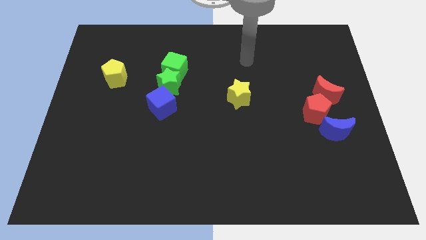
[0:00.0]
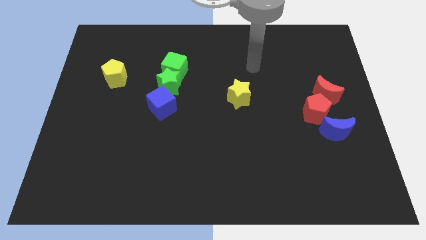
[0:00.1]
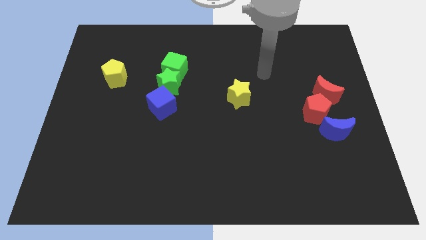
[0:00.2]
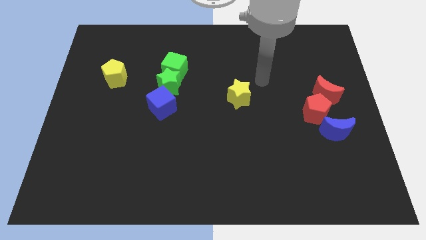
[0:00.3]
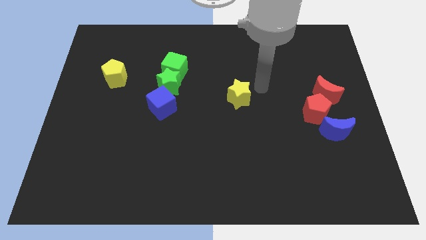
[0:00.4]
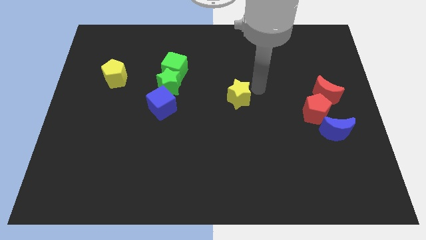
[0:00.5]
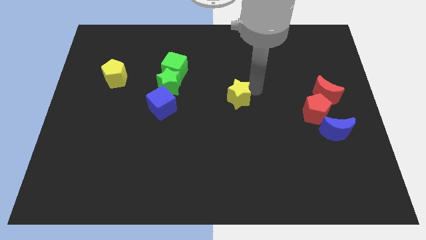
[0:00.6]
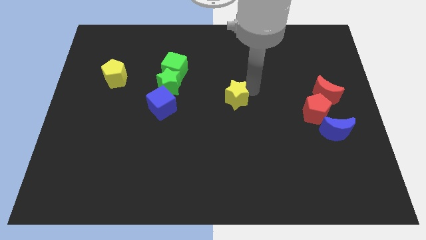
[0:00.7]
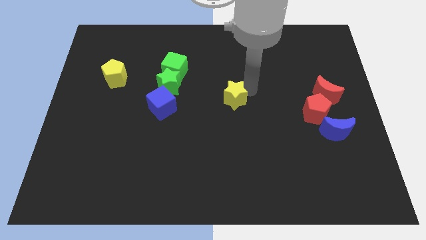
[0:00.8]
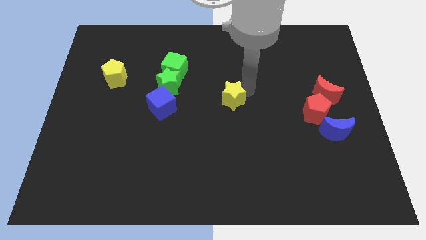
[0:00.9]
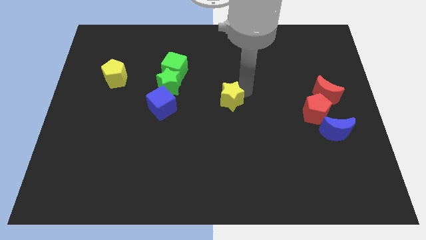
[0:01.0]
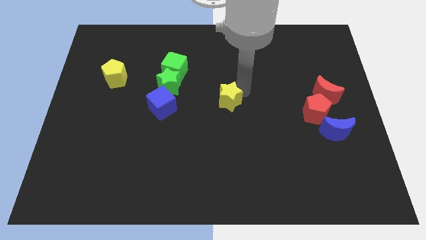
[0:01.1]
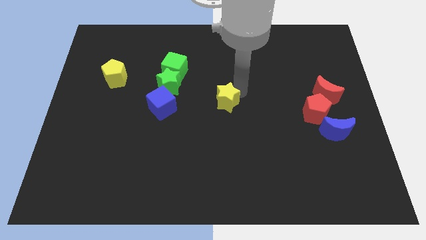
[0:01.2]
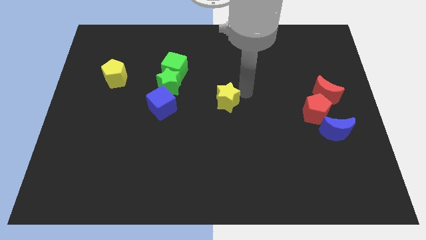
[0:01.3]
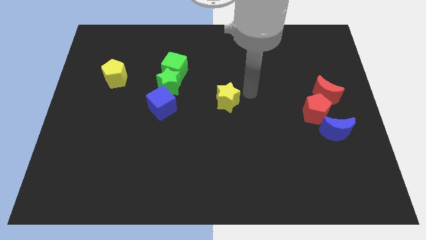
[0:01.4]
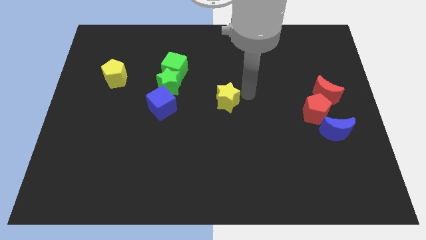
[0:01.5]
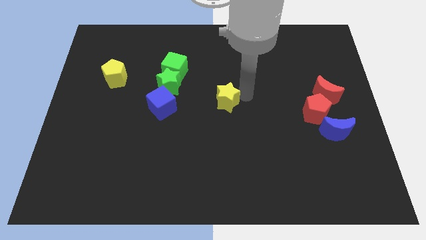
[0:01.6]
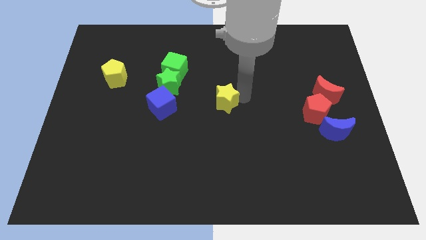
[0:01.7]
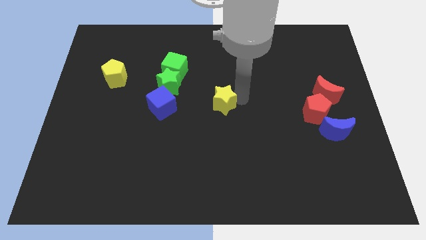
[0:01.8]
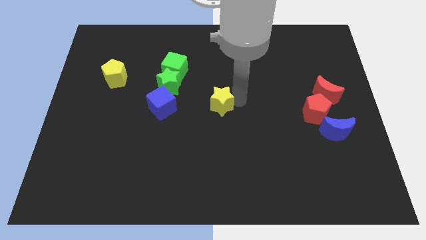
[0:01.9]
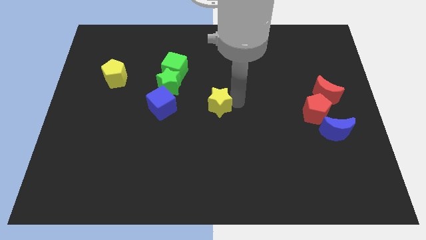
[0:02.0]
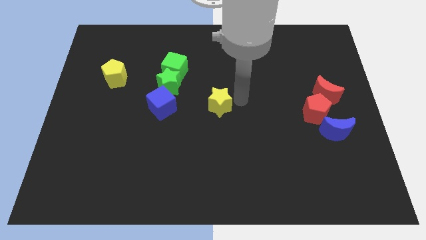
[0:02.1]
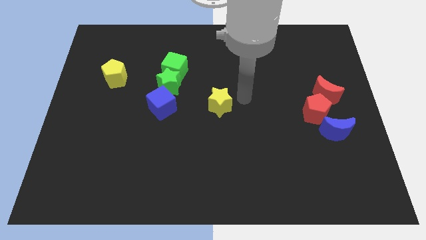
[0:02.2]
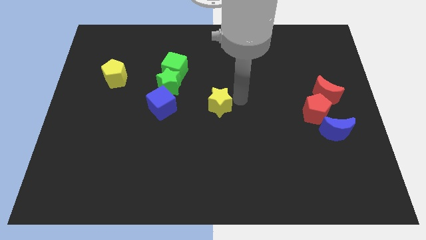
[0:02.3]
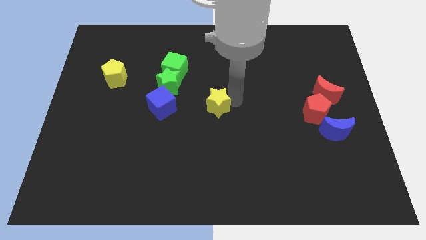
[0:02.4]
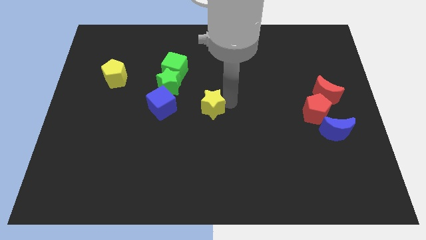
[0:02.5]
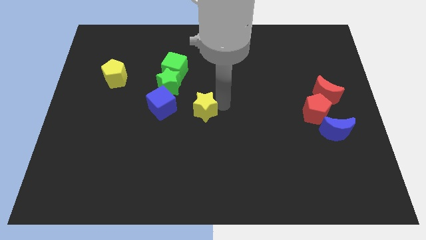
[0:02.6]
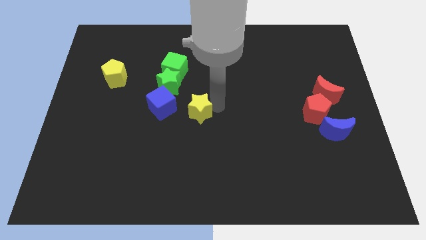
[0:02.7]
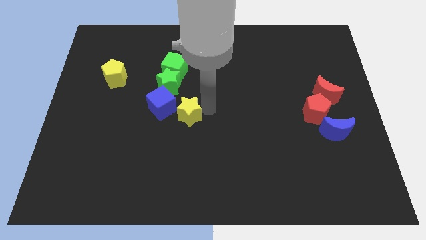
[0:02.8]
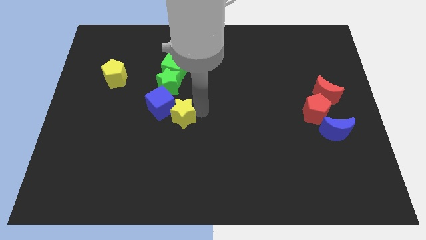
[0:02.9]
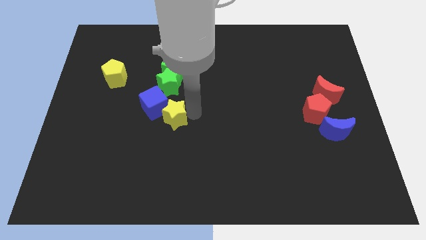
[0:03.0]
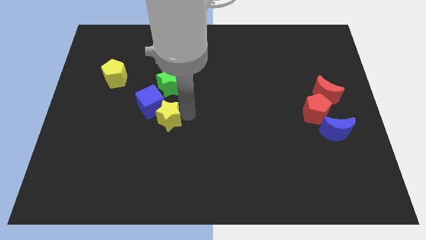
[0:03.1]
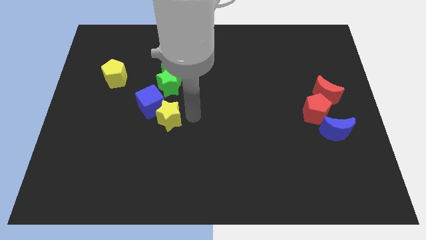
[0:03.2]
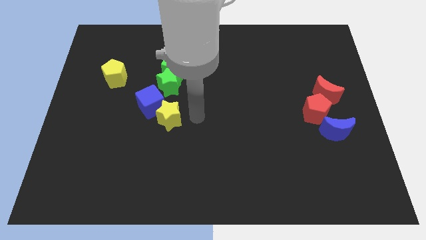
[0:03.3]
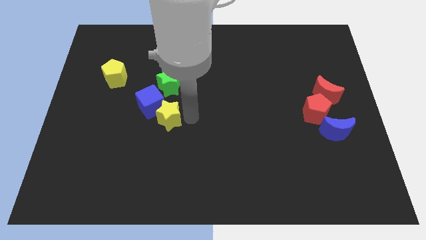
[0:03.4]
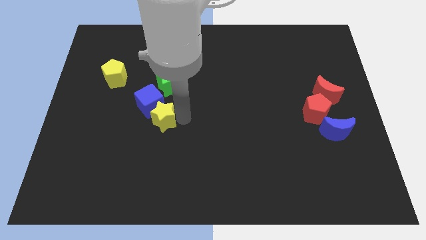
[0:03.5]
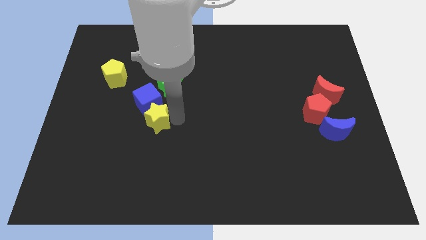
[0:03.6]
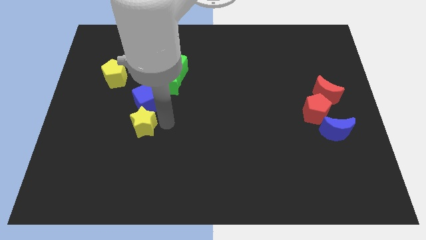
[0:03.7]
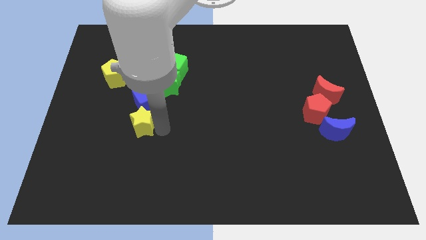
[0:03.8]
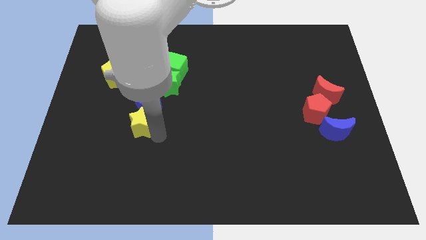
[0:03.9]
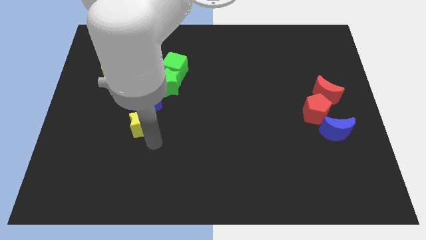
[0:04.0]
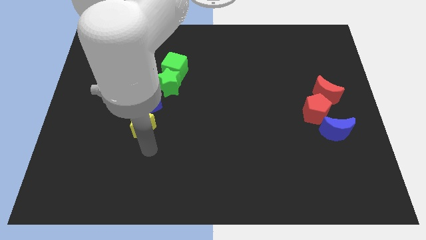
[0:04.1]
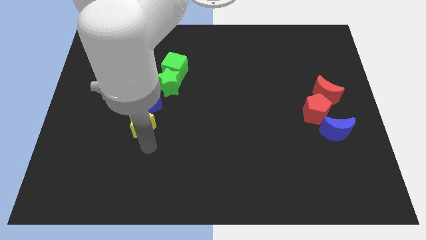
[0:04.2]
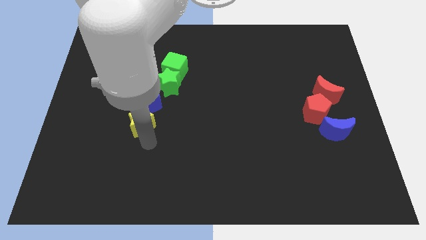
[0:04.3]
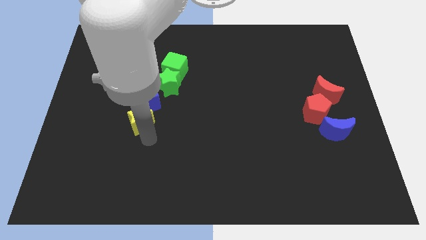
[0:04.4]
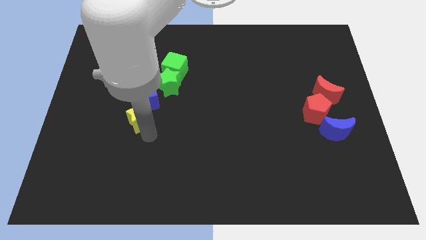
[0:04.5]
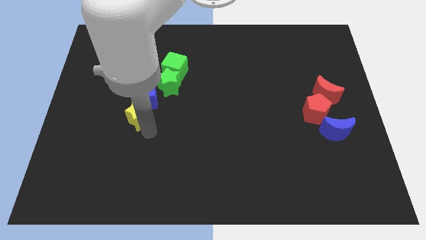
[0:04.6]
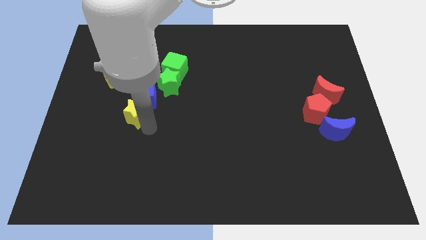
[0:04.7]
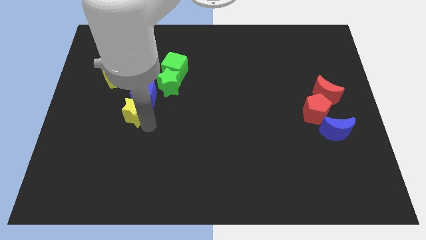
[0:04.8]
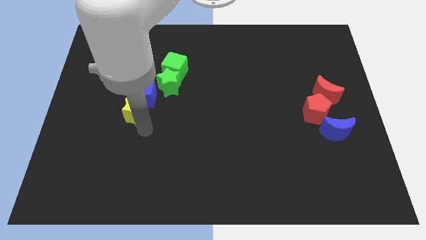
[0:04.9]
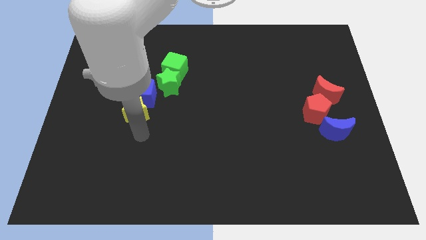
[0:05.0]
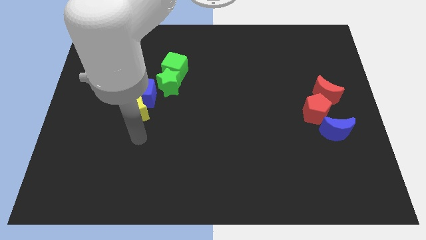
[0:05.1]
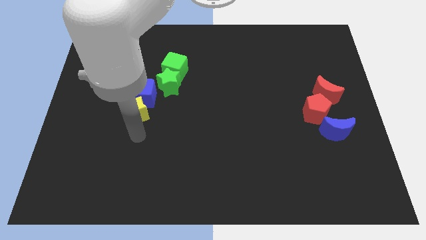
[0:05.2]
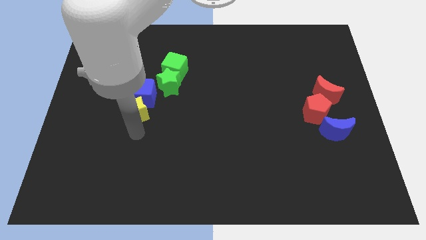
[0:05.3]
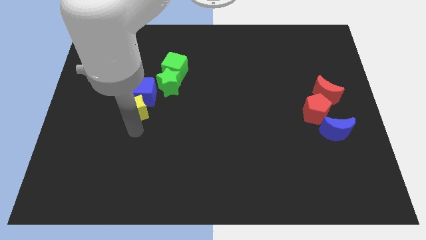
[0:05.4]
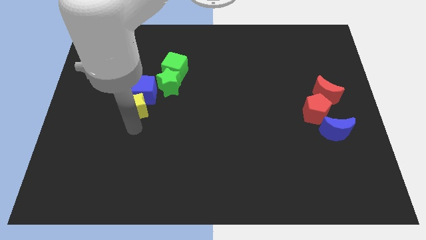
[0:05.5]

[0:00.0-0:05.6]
push the yellow star to the bottom right side of the yellow pentagon

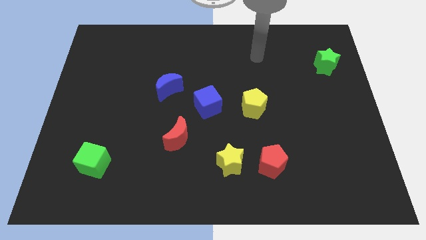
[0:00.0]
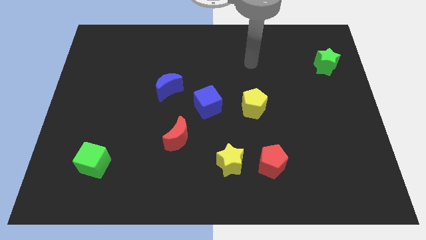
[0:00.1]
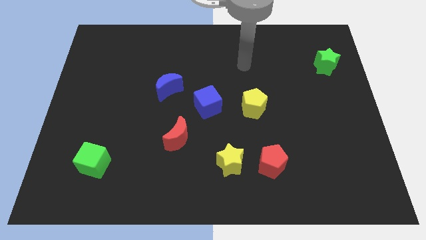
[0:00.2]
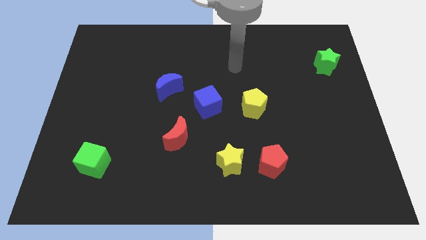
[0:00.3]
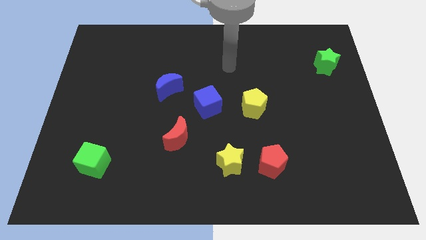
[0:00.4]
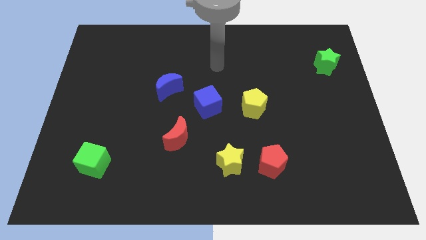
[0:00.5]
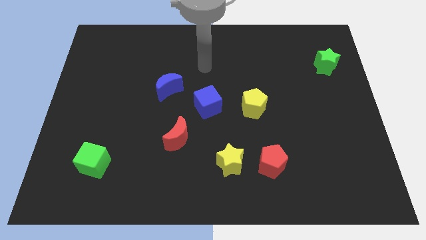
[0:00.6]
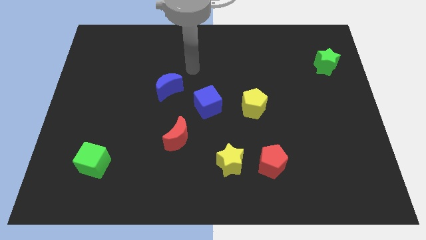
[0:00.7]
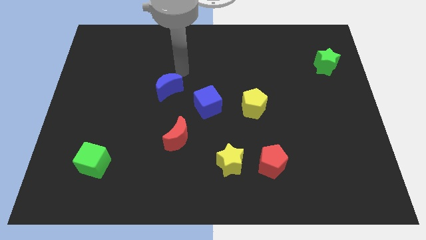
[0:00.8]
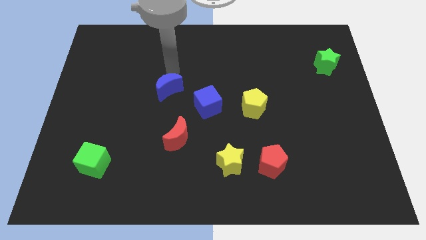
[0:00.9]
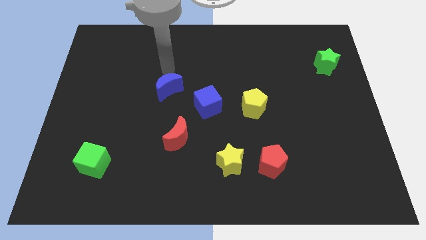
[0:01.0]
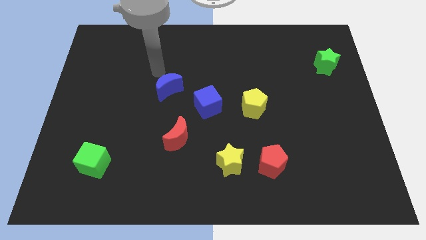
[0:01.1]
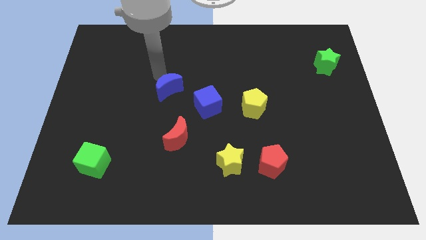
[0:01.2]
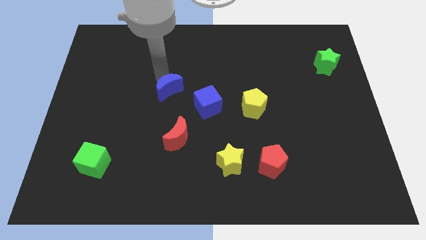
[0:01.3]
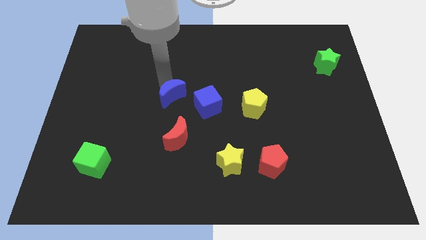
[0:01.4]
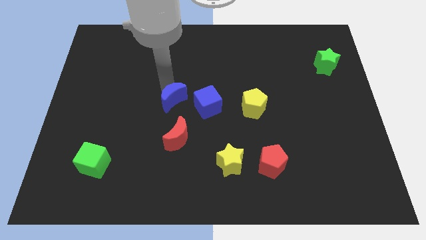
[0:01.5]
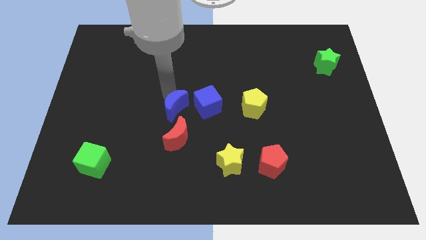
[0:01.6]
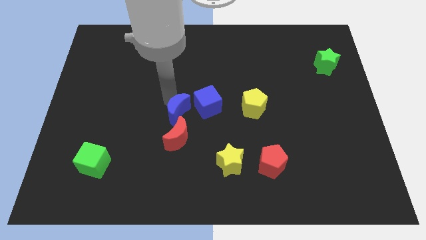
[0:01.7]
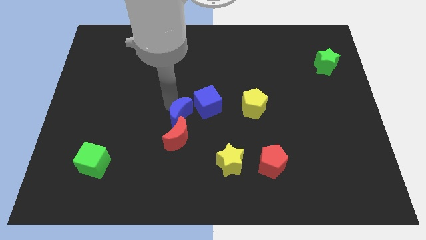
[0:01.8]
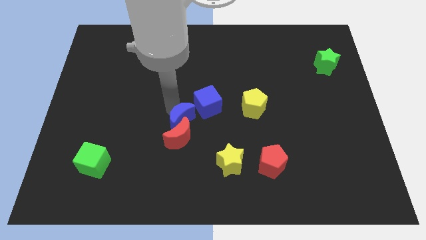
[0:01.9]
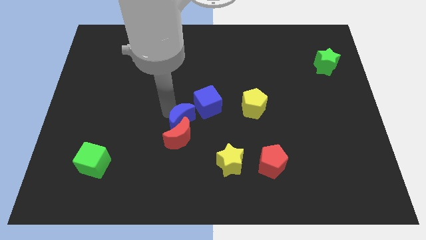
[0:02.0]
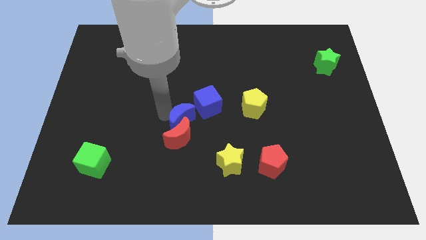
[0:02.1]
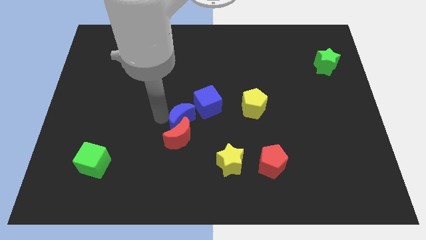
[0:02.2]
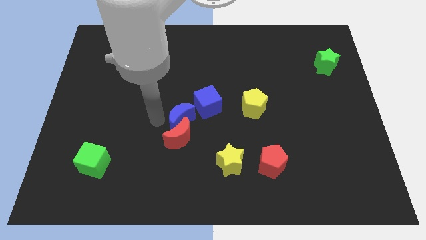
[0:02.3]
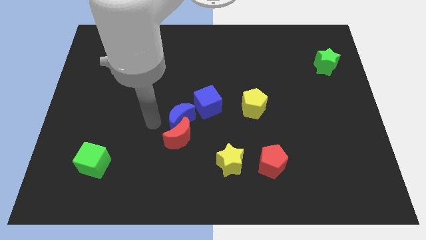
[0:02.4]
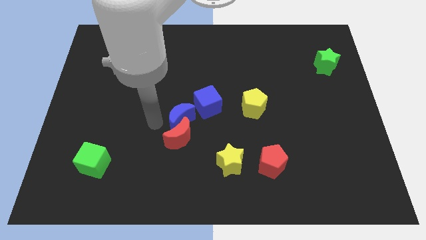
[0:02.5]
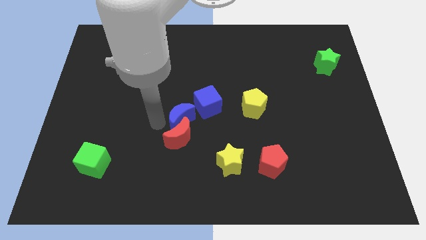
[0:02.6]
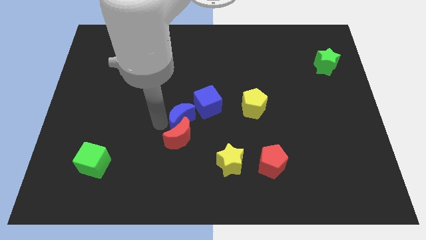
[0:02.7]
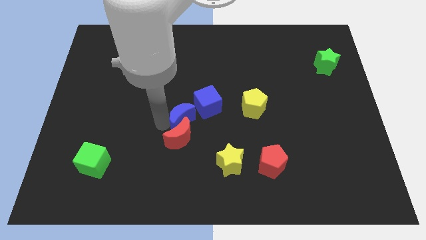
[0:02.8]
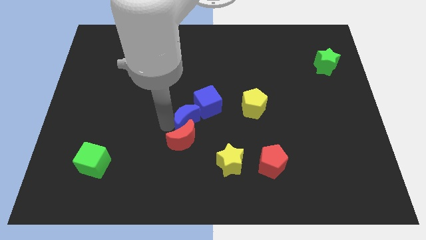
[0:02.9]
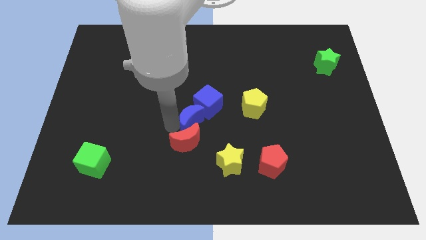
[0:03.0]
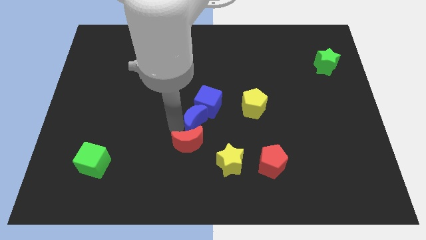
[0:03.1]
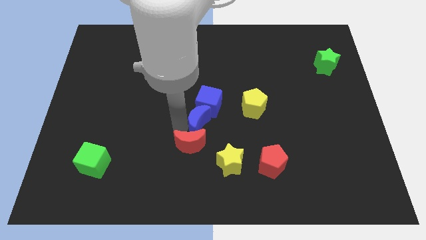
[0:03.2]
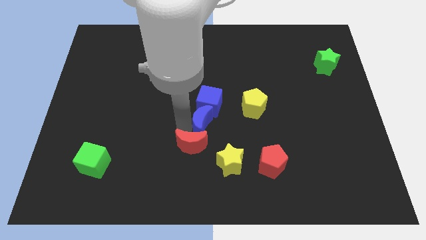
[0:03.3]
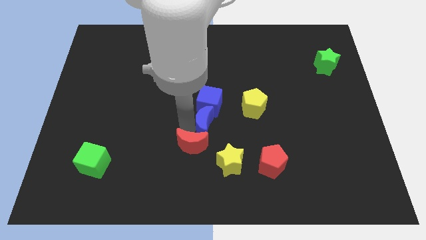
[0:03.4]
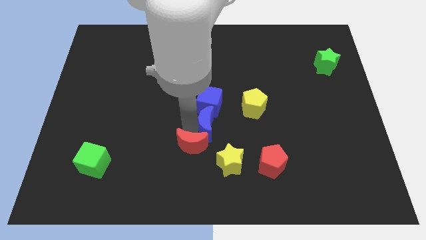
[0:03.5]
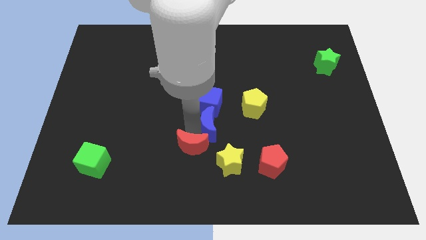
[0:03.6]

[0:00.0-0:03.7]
slide the blue moon to the bottom left side of the yellow pentagon
